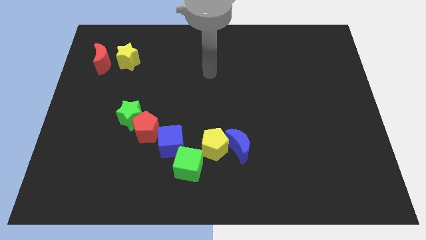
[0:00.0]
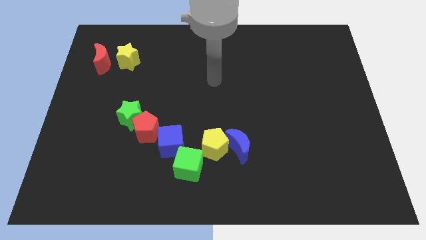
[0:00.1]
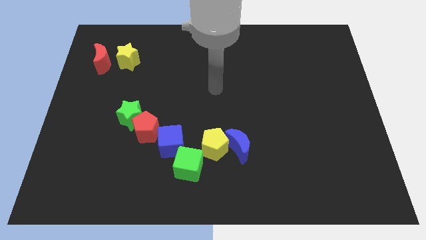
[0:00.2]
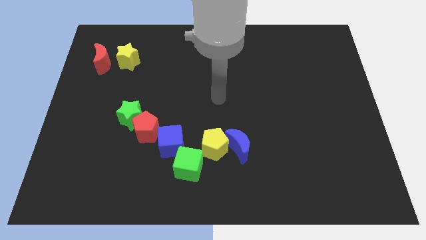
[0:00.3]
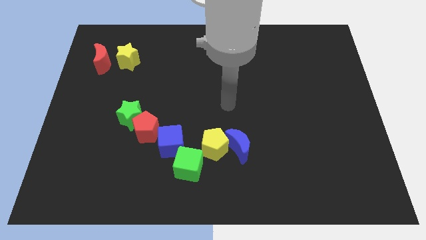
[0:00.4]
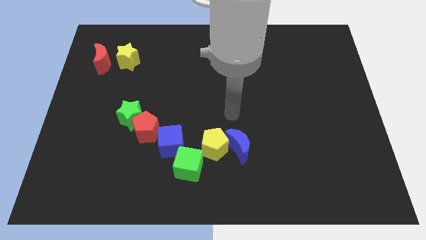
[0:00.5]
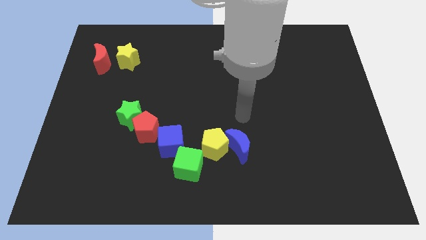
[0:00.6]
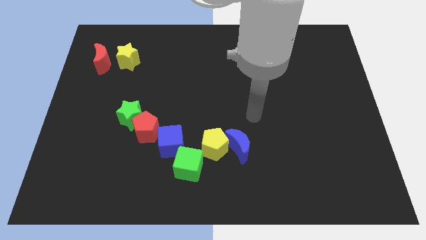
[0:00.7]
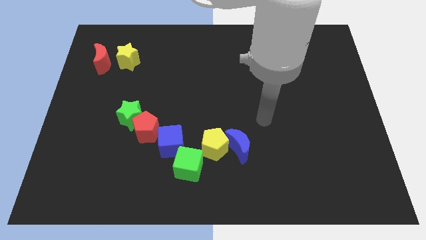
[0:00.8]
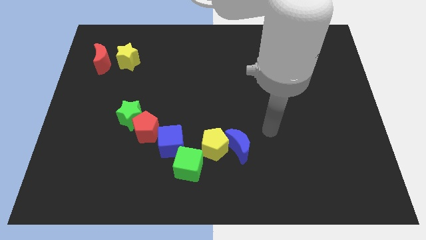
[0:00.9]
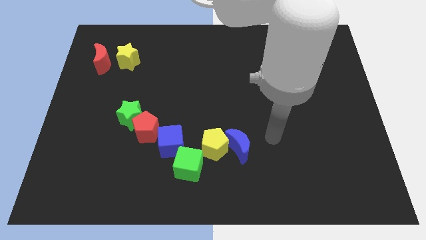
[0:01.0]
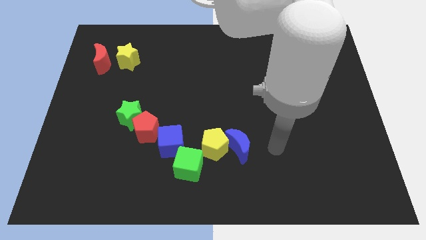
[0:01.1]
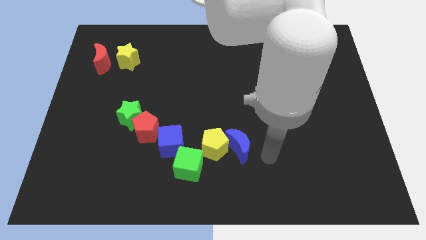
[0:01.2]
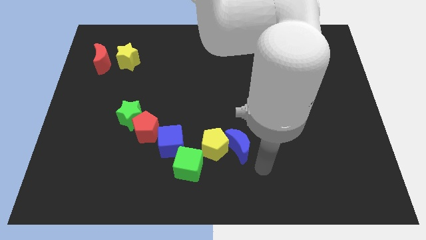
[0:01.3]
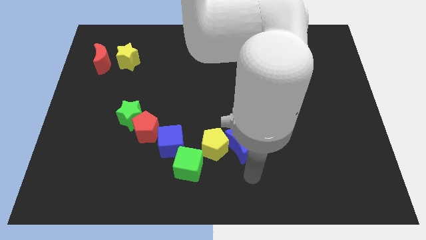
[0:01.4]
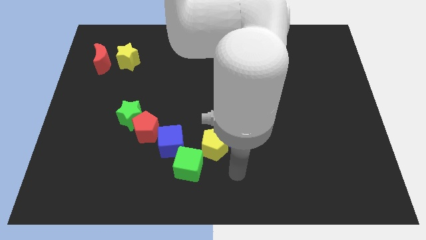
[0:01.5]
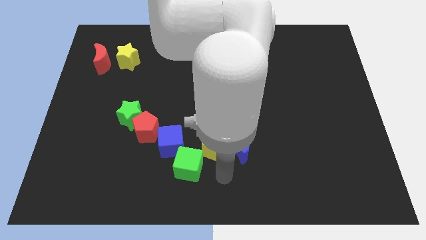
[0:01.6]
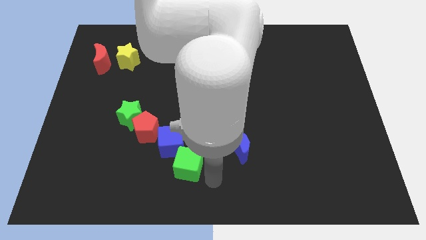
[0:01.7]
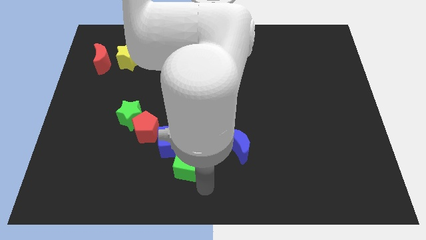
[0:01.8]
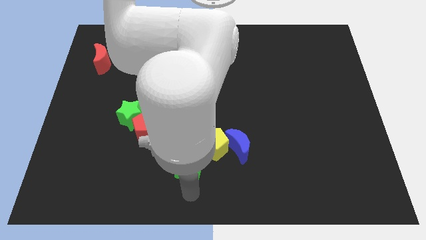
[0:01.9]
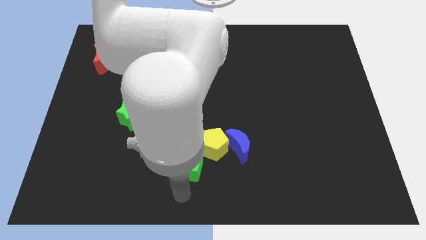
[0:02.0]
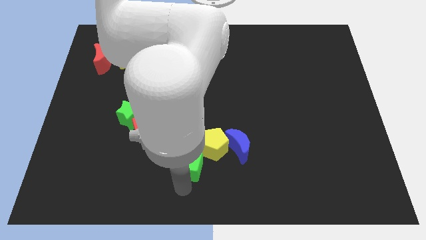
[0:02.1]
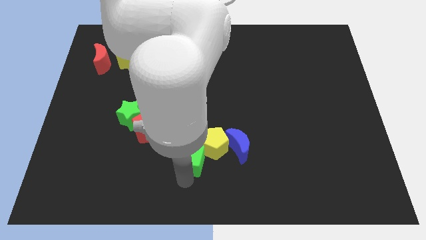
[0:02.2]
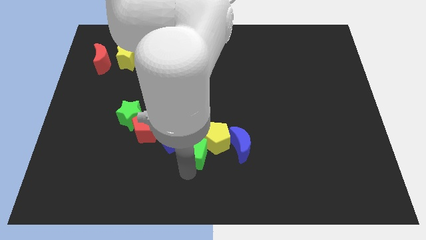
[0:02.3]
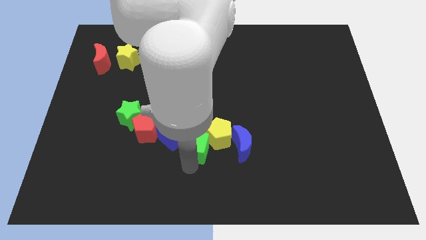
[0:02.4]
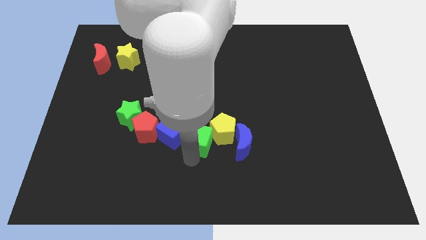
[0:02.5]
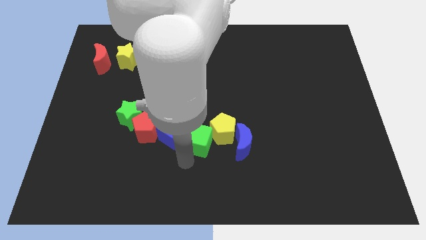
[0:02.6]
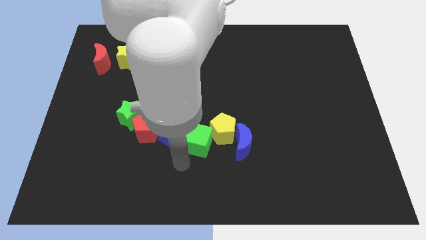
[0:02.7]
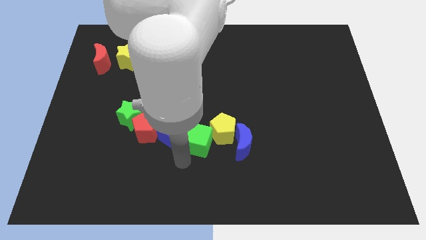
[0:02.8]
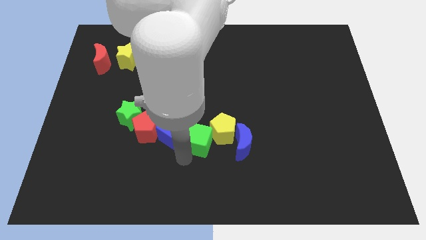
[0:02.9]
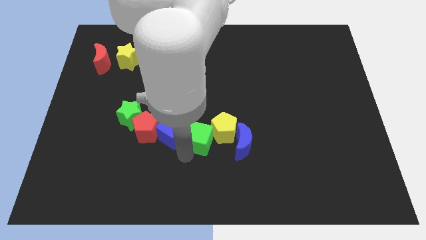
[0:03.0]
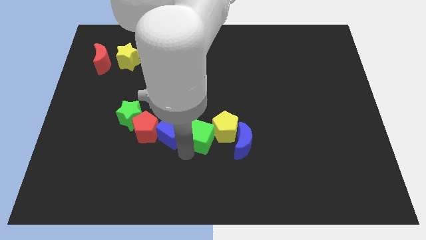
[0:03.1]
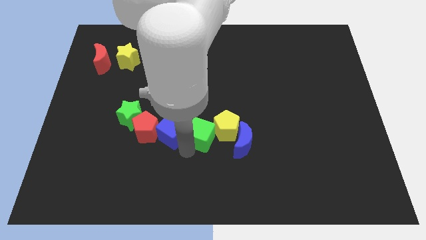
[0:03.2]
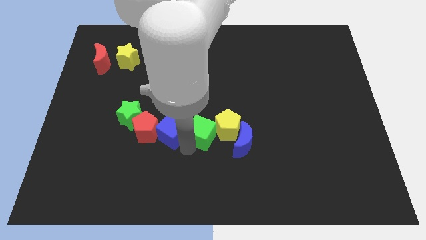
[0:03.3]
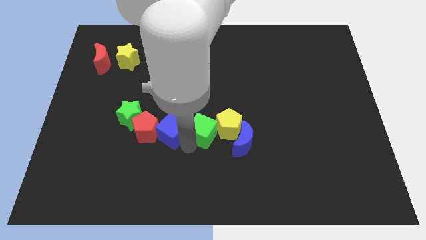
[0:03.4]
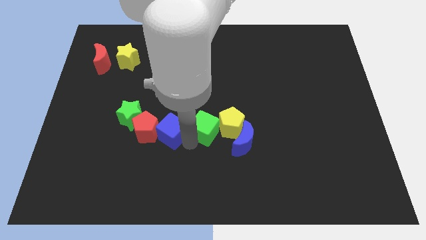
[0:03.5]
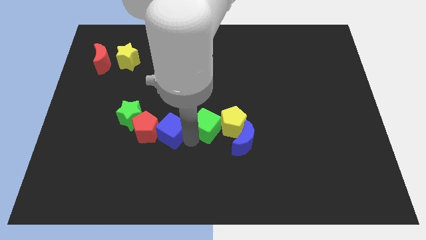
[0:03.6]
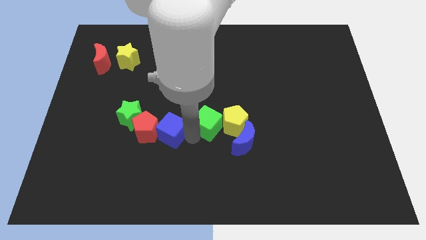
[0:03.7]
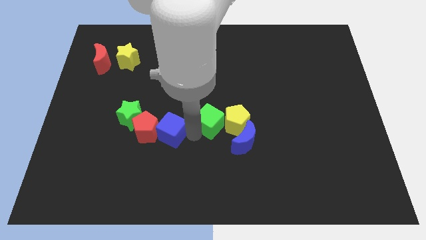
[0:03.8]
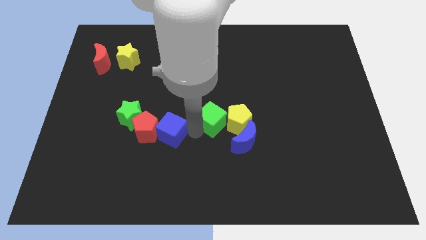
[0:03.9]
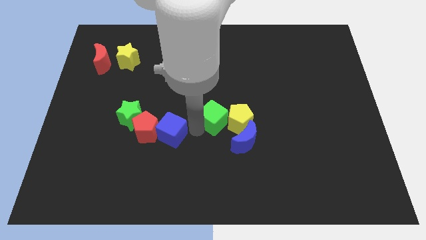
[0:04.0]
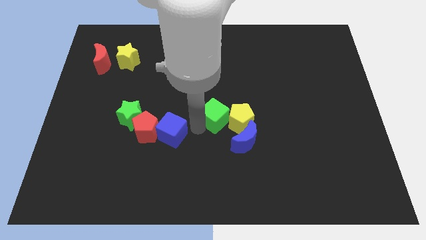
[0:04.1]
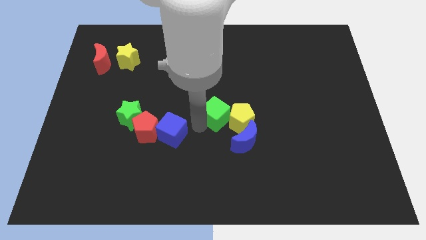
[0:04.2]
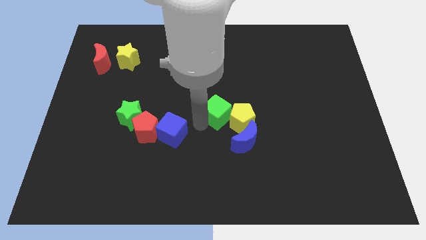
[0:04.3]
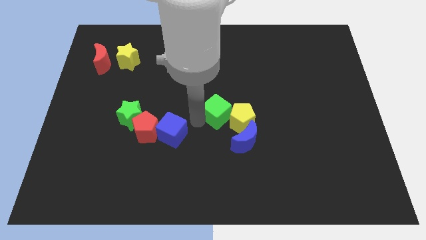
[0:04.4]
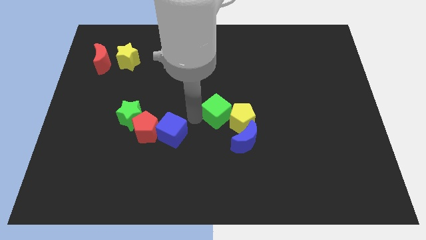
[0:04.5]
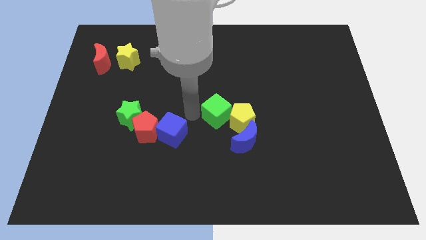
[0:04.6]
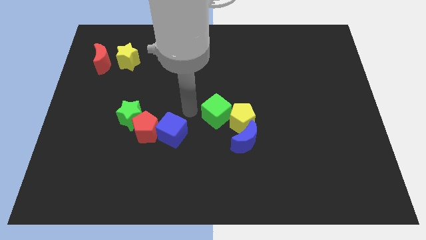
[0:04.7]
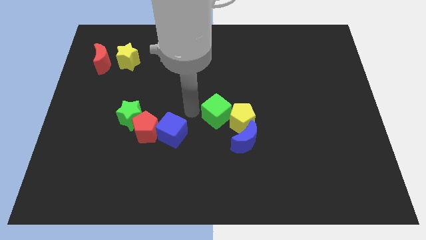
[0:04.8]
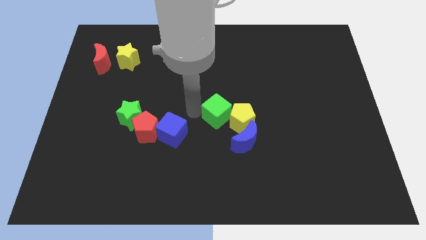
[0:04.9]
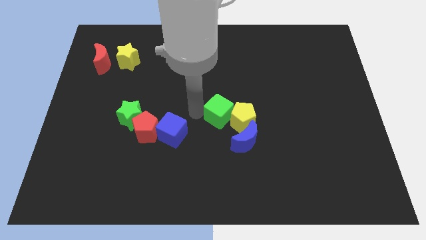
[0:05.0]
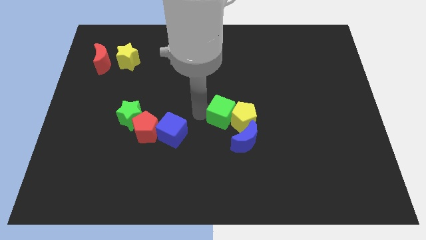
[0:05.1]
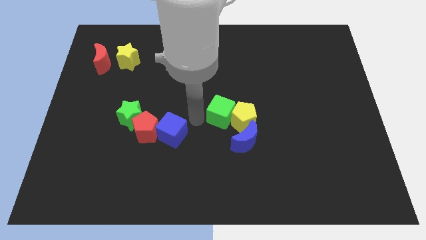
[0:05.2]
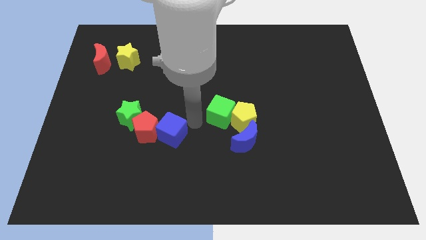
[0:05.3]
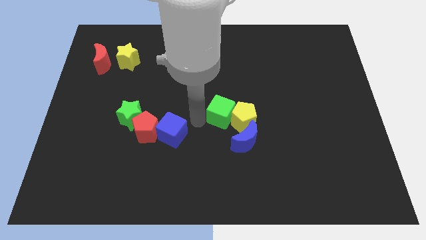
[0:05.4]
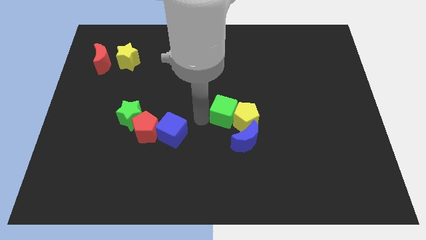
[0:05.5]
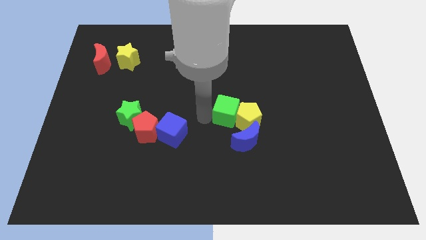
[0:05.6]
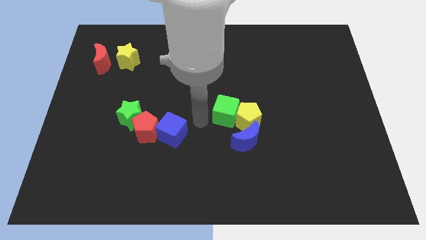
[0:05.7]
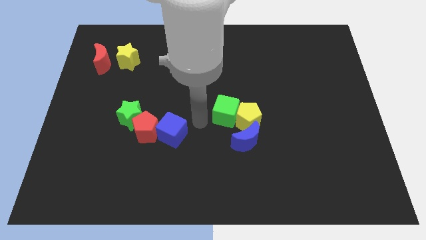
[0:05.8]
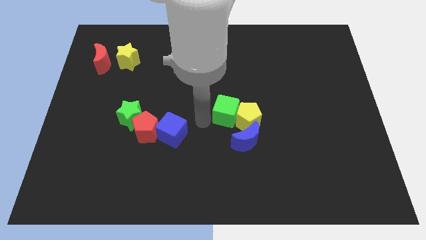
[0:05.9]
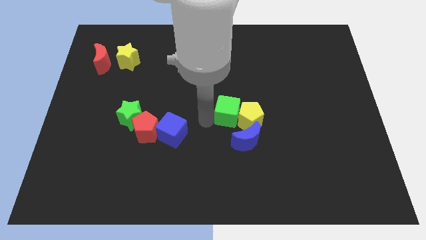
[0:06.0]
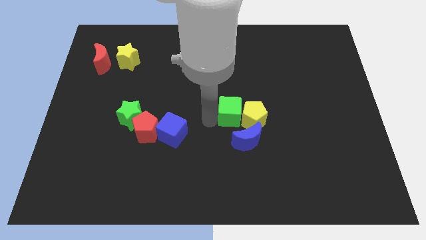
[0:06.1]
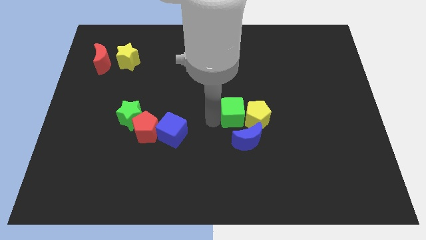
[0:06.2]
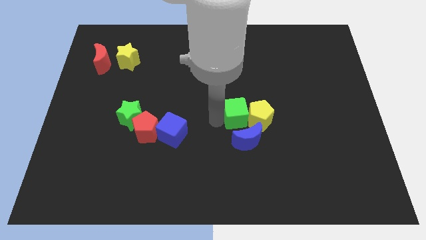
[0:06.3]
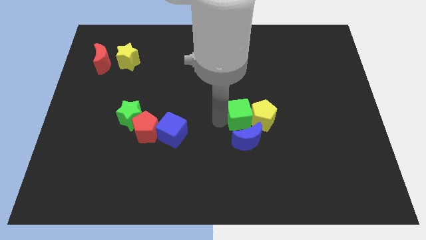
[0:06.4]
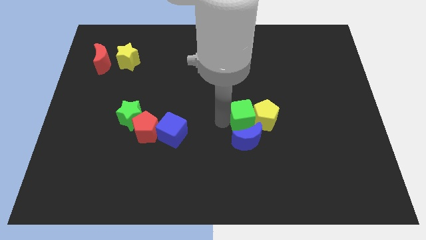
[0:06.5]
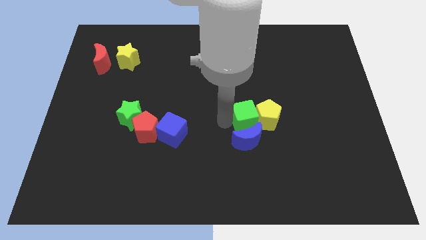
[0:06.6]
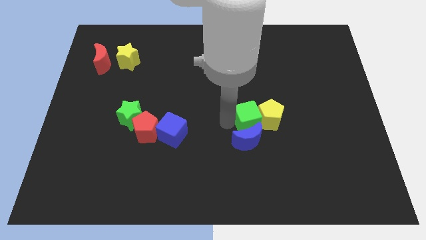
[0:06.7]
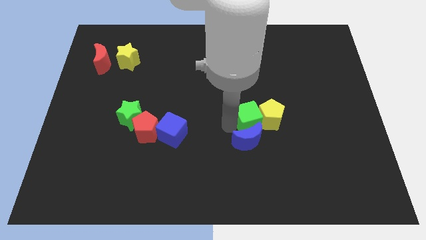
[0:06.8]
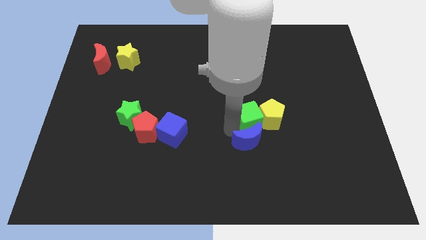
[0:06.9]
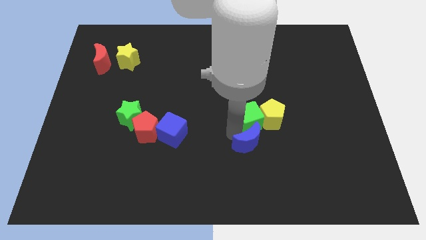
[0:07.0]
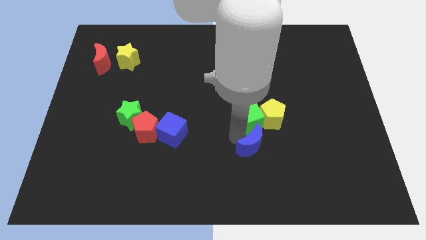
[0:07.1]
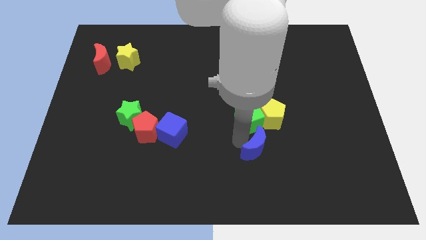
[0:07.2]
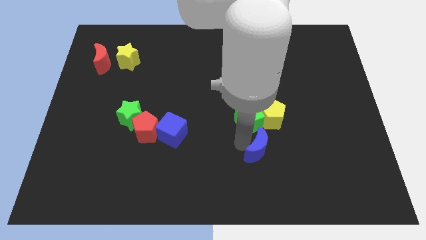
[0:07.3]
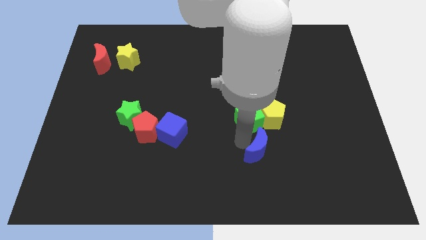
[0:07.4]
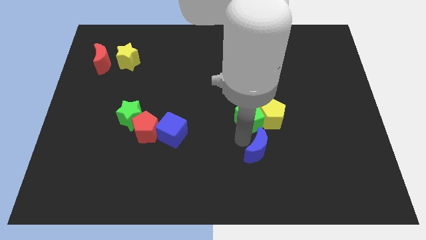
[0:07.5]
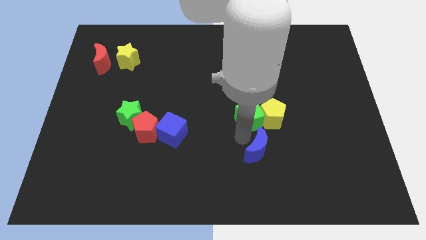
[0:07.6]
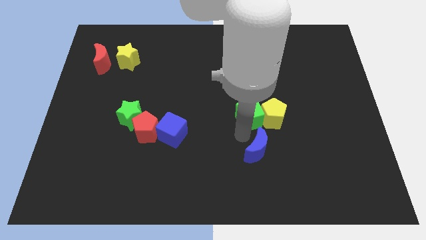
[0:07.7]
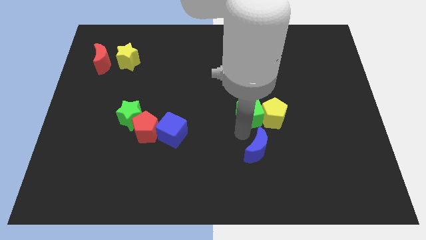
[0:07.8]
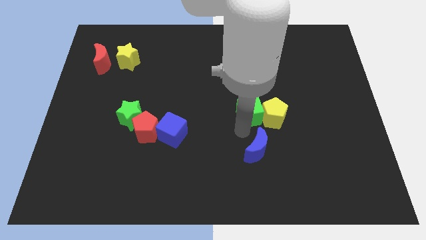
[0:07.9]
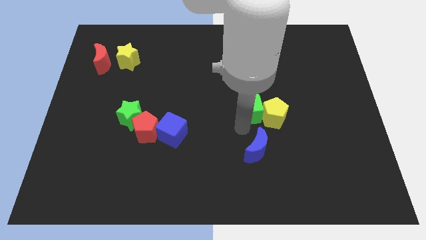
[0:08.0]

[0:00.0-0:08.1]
move the green cube diagonally up and right
